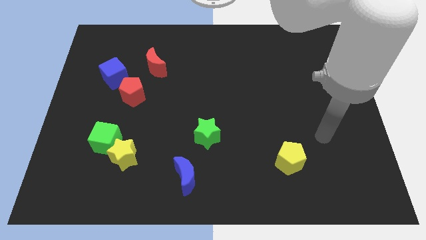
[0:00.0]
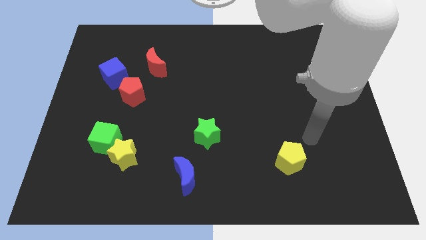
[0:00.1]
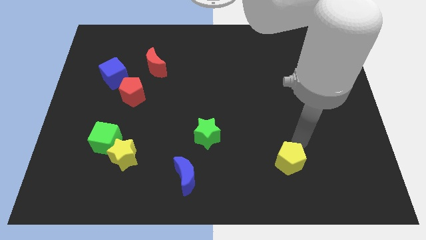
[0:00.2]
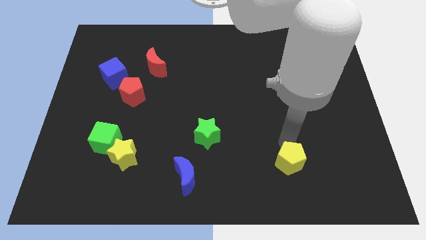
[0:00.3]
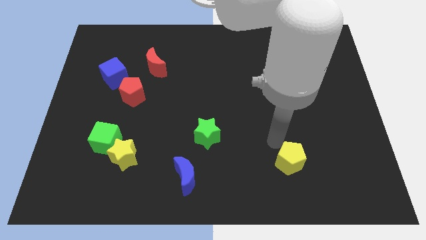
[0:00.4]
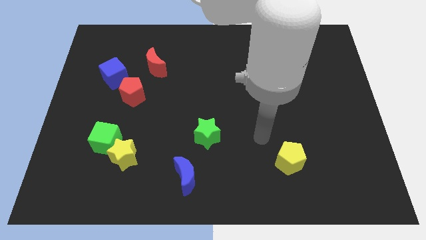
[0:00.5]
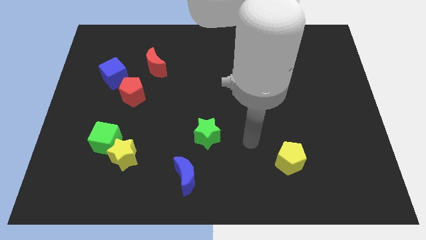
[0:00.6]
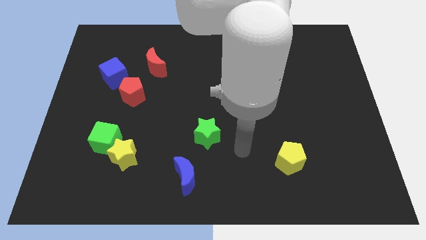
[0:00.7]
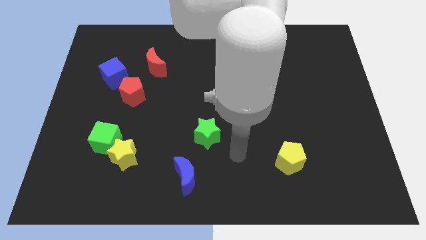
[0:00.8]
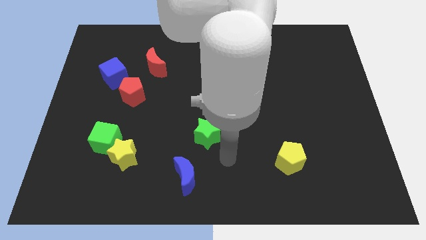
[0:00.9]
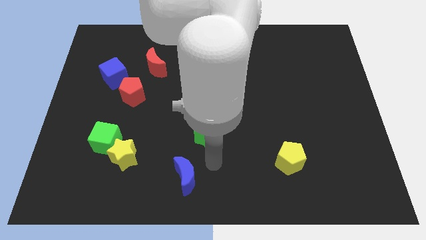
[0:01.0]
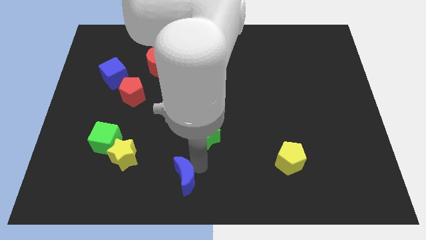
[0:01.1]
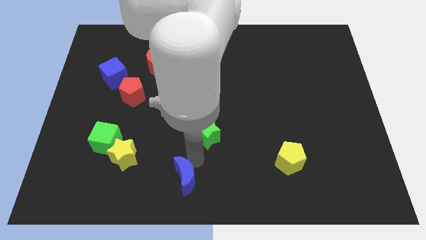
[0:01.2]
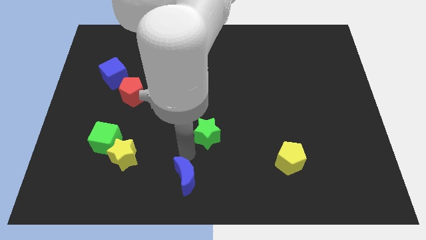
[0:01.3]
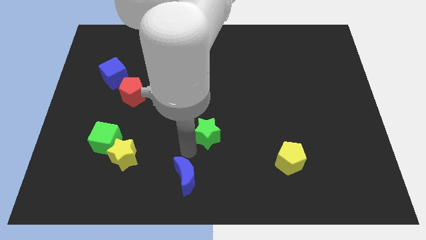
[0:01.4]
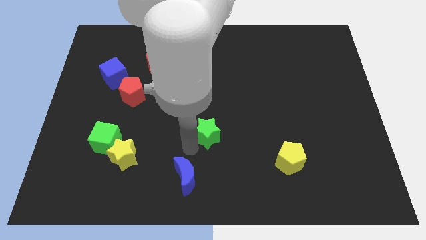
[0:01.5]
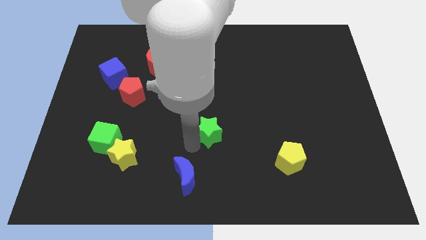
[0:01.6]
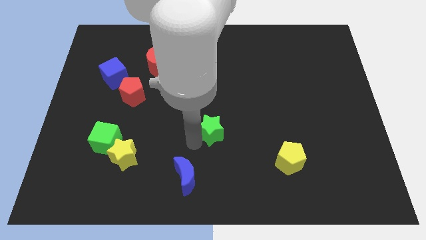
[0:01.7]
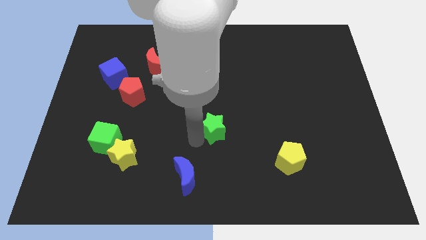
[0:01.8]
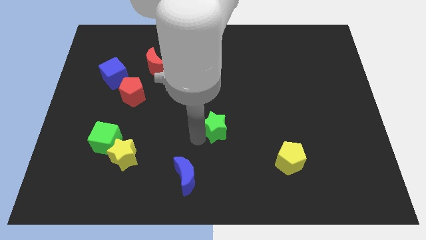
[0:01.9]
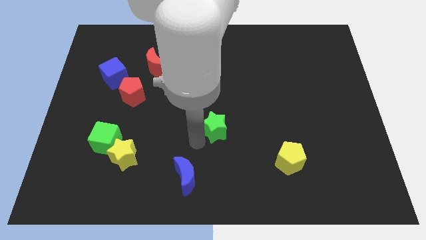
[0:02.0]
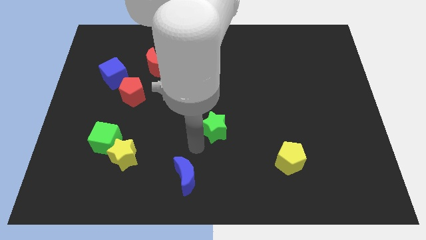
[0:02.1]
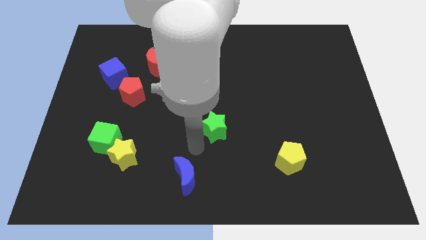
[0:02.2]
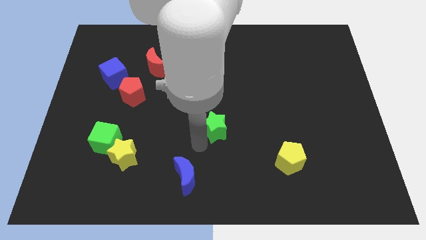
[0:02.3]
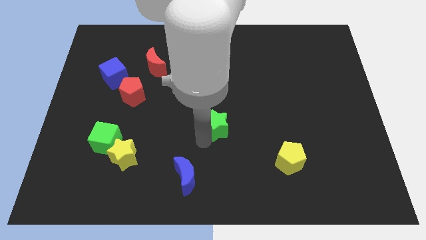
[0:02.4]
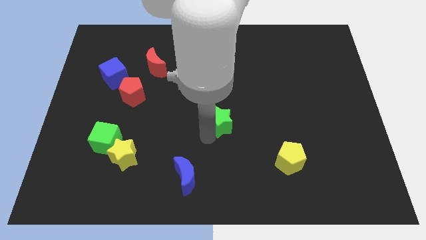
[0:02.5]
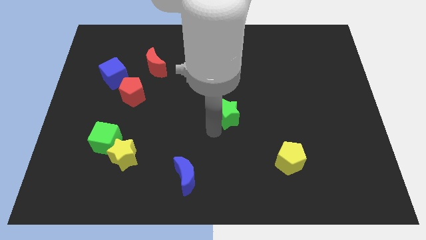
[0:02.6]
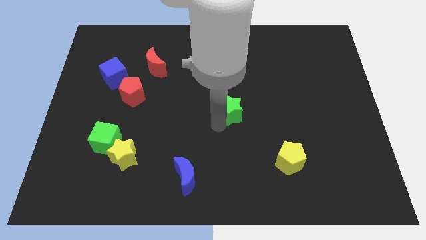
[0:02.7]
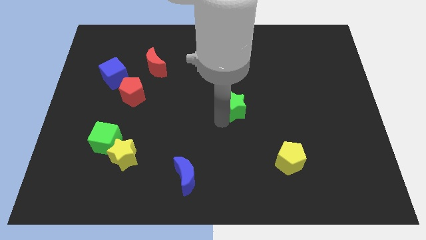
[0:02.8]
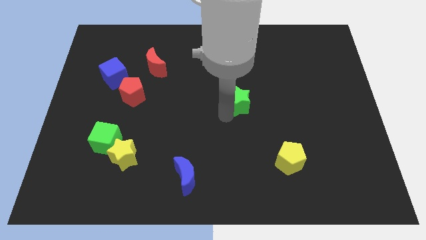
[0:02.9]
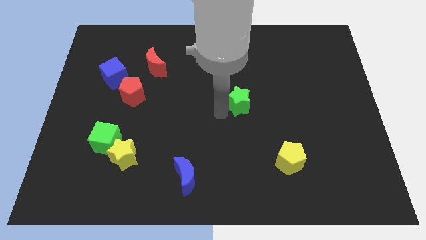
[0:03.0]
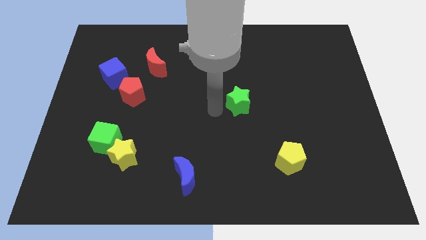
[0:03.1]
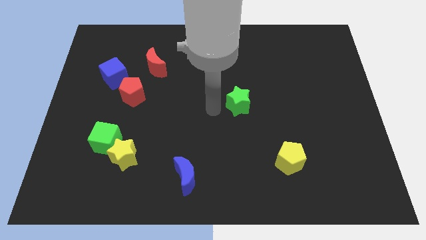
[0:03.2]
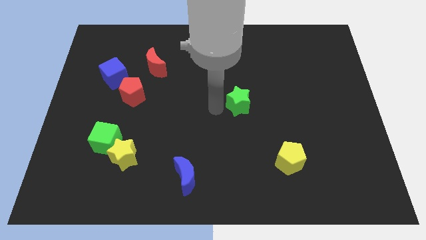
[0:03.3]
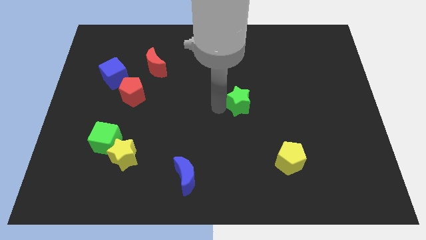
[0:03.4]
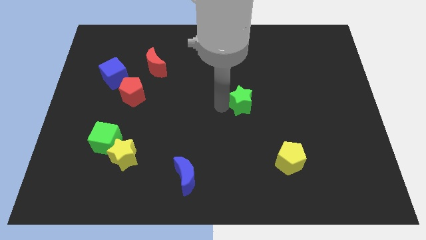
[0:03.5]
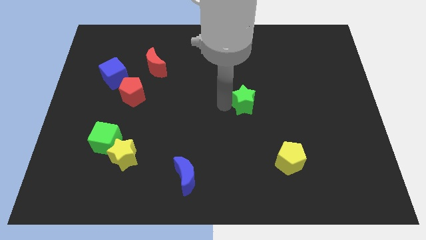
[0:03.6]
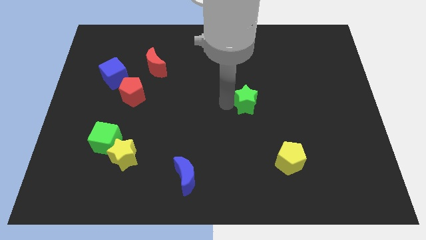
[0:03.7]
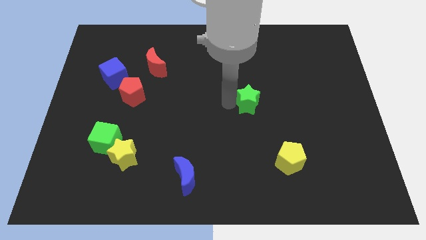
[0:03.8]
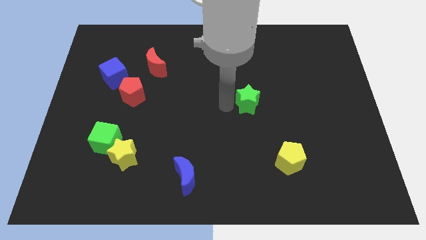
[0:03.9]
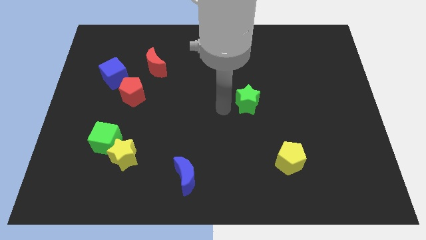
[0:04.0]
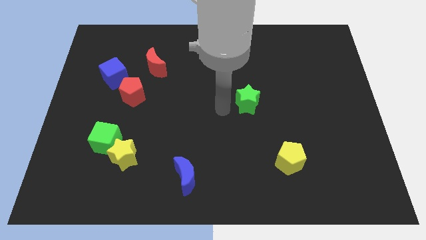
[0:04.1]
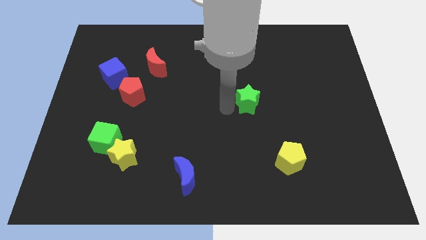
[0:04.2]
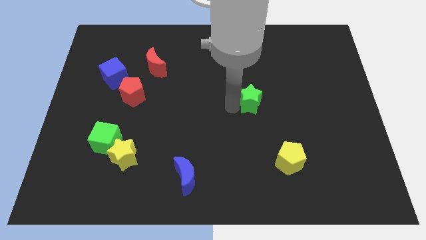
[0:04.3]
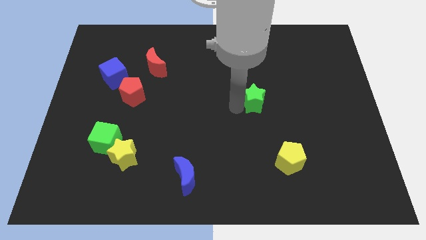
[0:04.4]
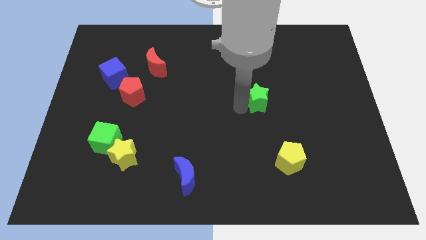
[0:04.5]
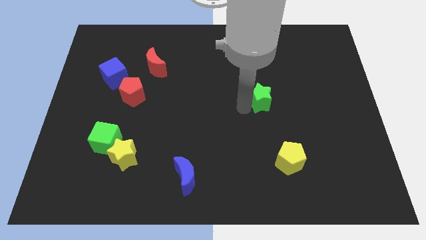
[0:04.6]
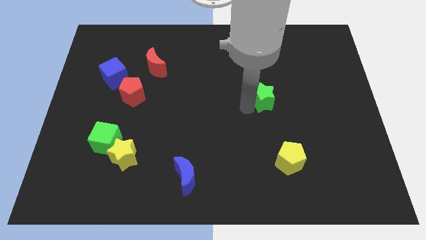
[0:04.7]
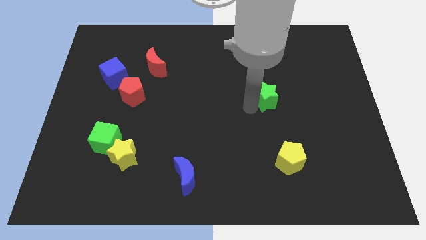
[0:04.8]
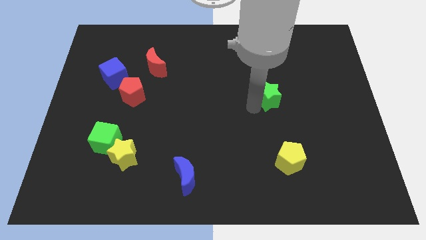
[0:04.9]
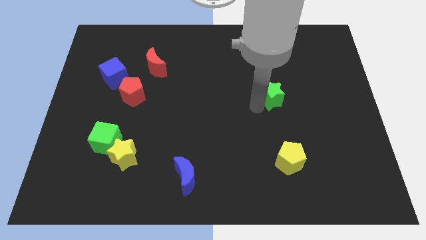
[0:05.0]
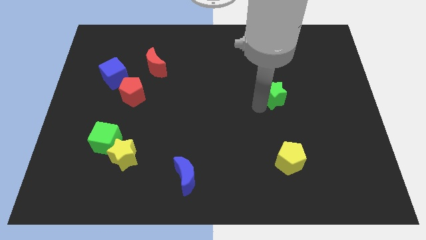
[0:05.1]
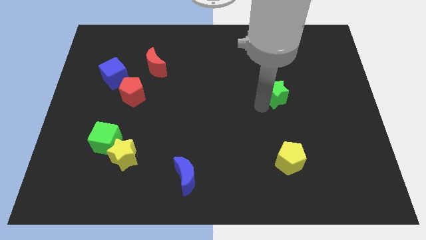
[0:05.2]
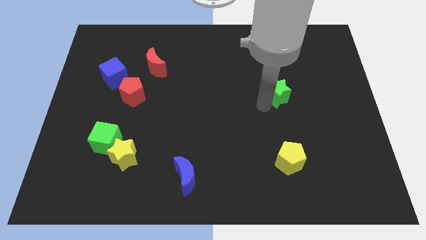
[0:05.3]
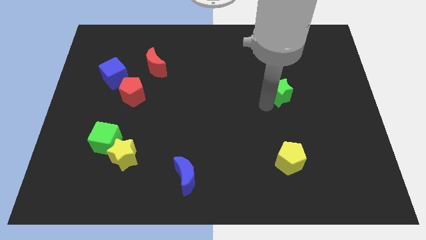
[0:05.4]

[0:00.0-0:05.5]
move the green star up and then right

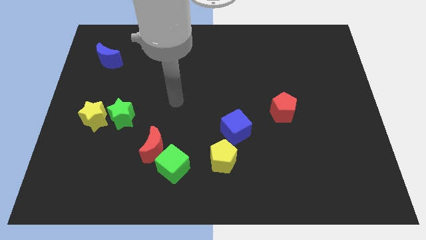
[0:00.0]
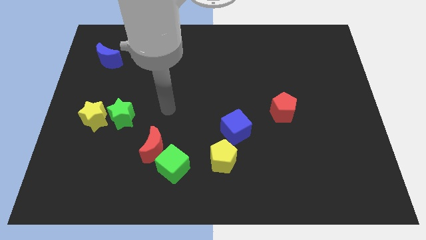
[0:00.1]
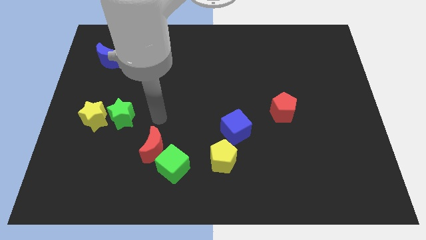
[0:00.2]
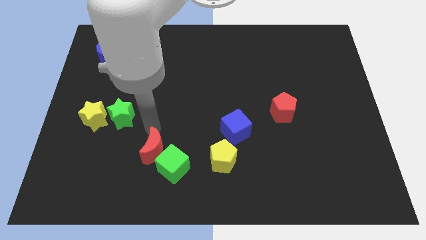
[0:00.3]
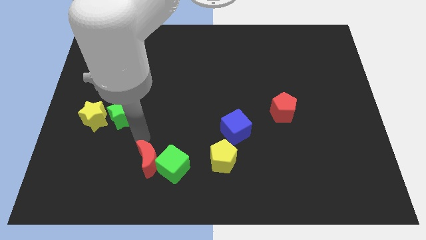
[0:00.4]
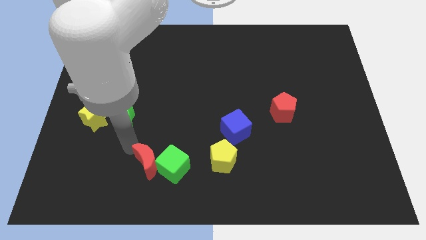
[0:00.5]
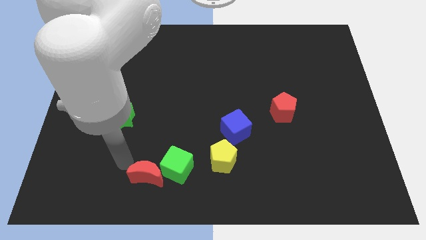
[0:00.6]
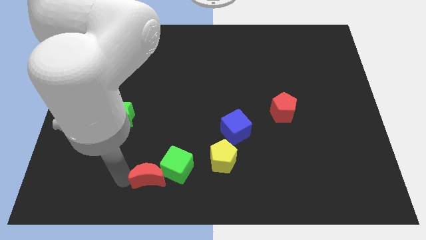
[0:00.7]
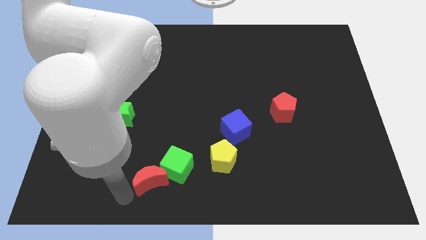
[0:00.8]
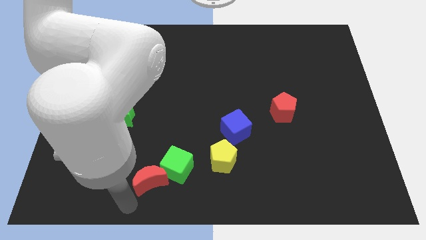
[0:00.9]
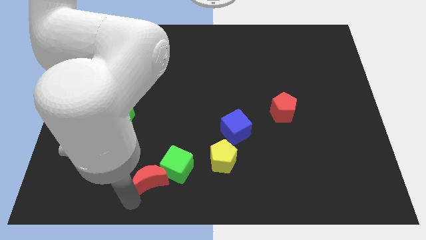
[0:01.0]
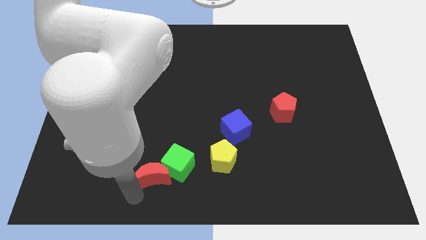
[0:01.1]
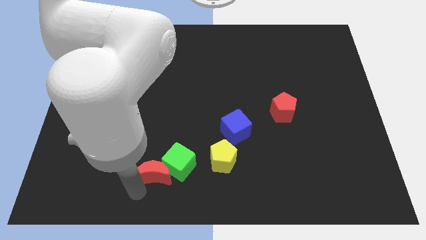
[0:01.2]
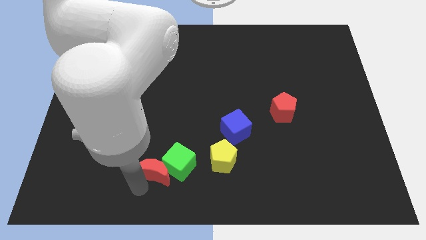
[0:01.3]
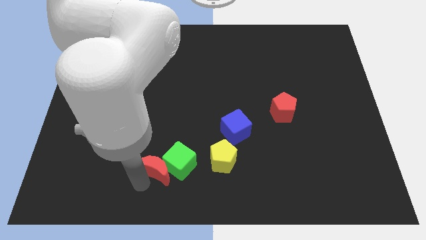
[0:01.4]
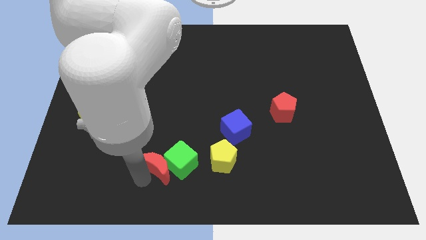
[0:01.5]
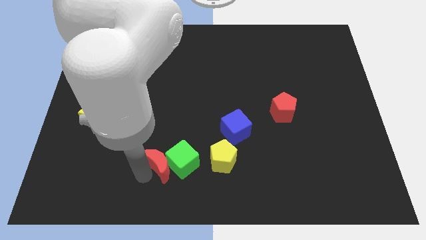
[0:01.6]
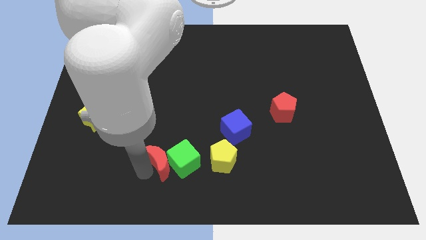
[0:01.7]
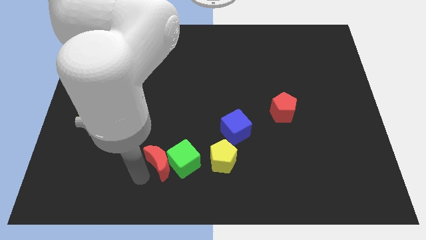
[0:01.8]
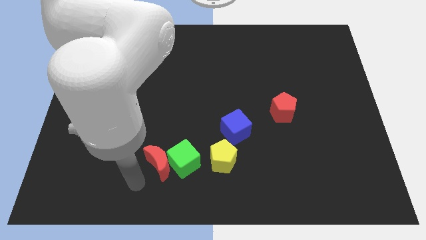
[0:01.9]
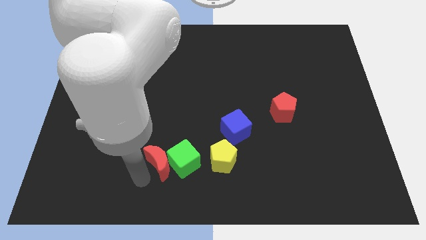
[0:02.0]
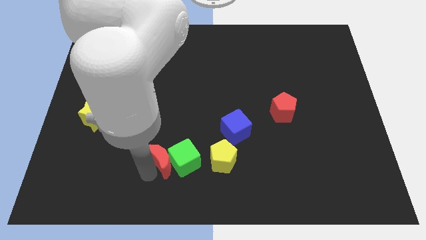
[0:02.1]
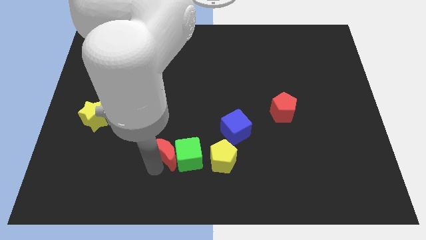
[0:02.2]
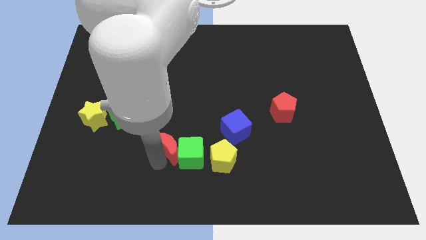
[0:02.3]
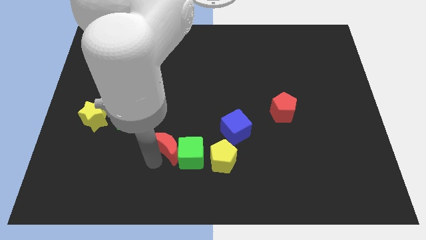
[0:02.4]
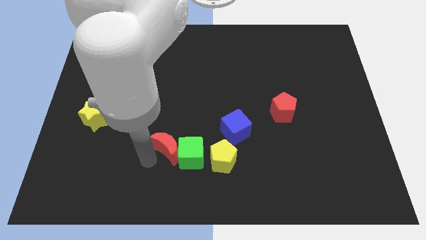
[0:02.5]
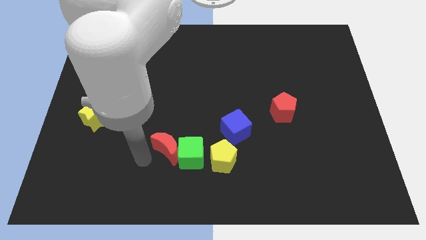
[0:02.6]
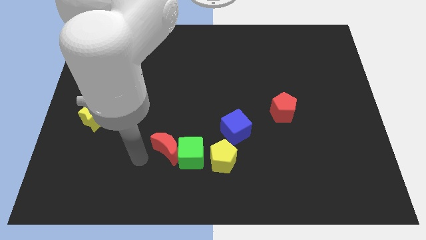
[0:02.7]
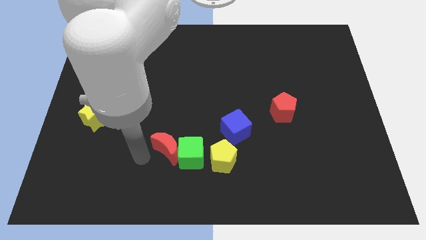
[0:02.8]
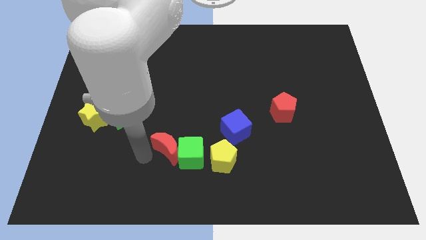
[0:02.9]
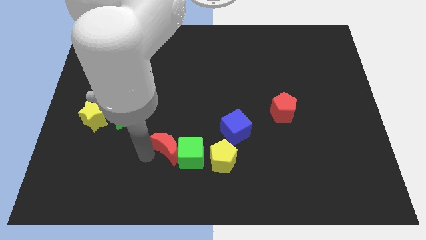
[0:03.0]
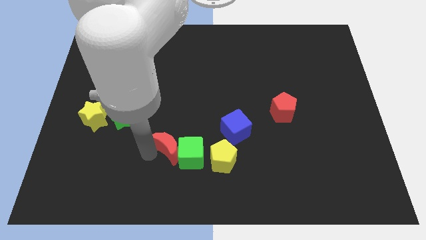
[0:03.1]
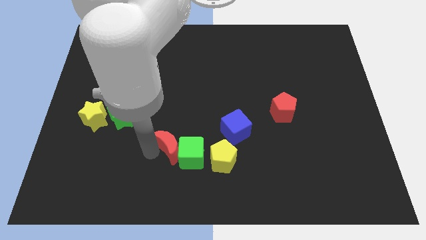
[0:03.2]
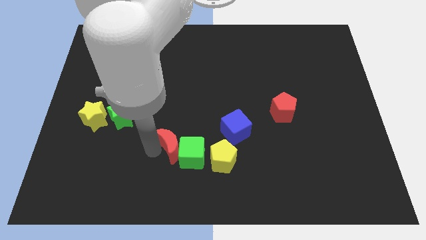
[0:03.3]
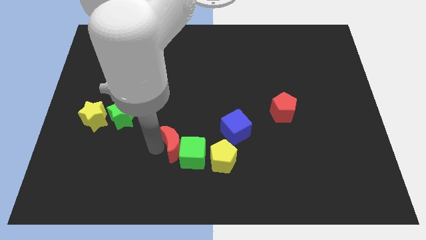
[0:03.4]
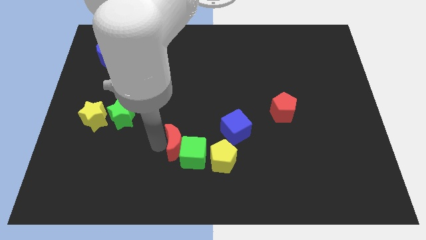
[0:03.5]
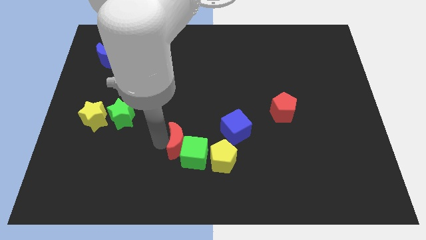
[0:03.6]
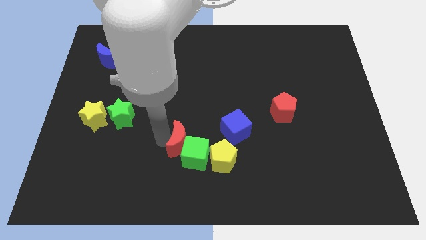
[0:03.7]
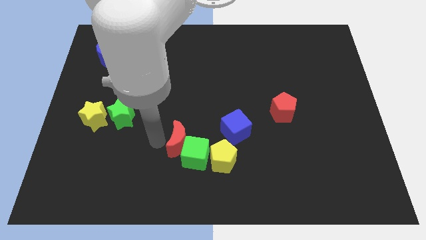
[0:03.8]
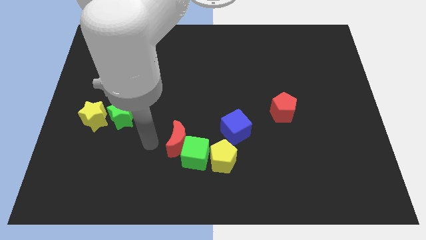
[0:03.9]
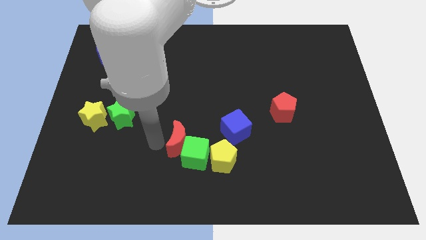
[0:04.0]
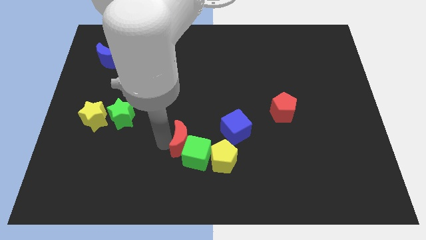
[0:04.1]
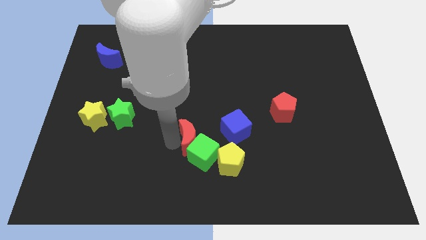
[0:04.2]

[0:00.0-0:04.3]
slightly slide the red moon right
